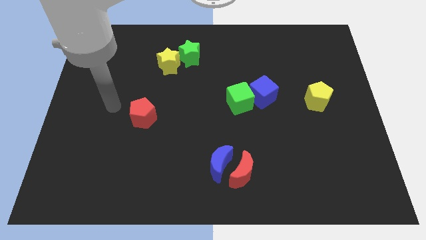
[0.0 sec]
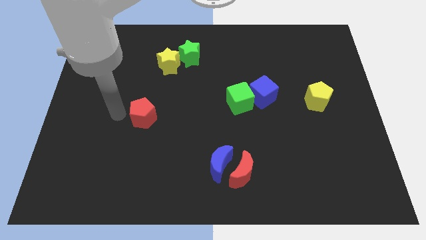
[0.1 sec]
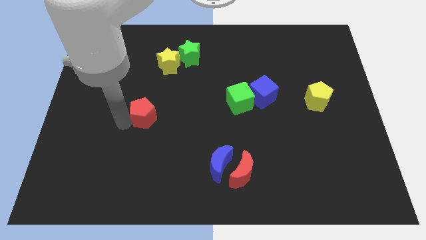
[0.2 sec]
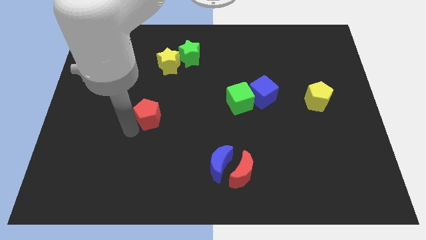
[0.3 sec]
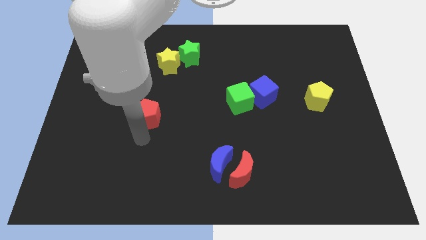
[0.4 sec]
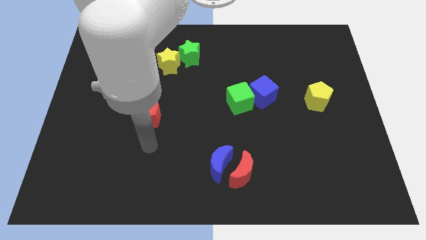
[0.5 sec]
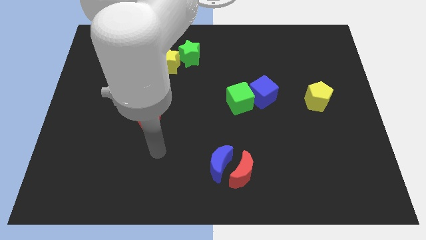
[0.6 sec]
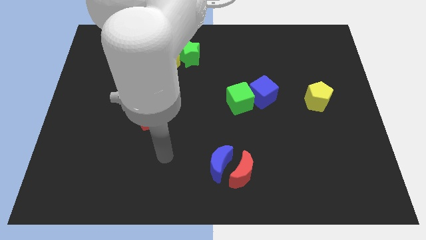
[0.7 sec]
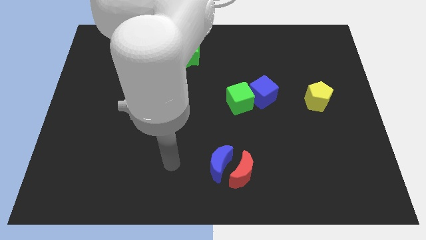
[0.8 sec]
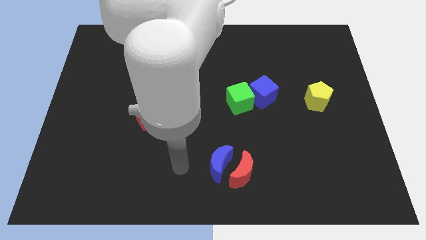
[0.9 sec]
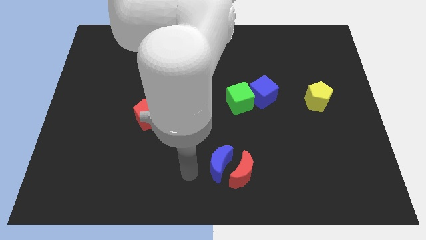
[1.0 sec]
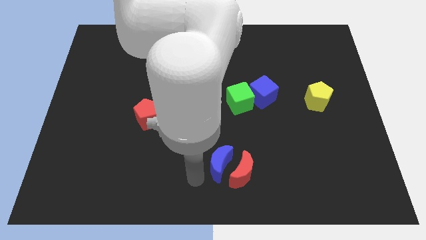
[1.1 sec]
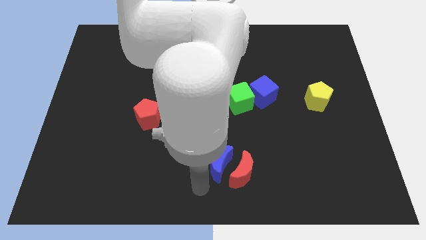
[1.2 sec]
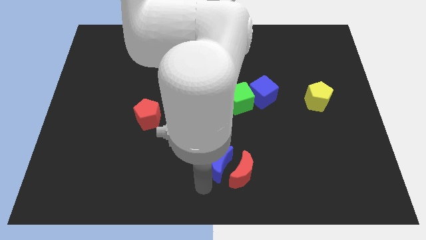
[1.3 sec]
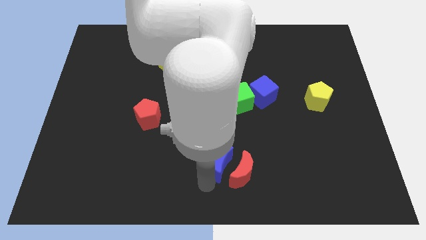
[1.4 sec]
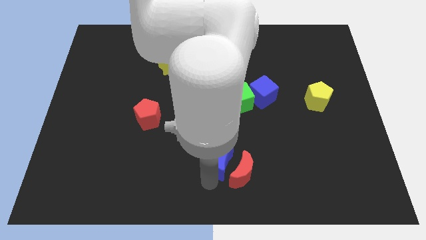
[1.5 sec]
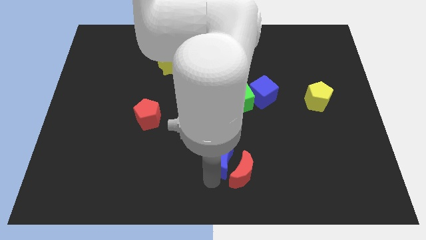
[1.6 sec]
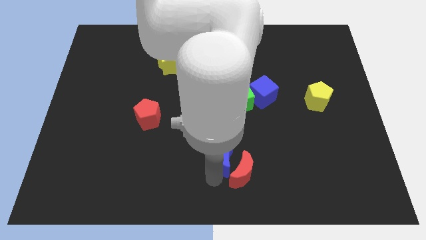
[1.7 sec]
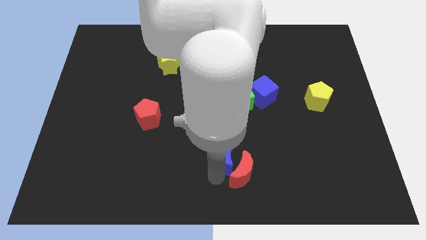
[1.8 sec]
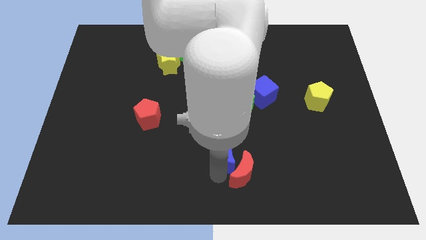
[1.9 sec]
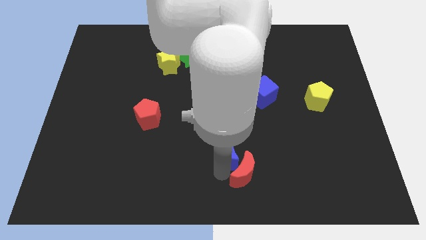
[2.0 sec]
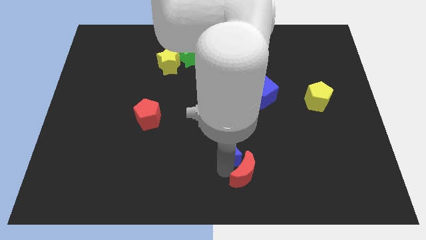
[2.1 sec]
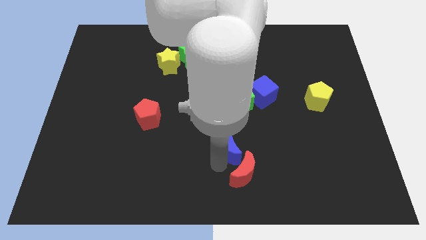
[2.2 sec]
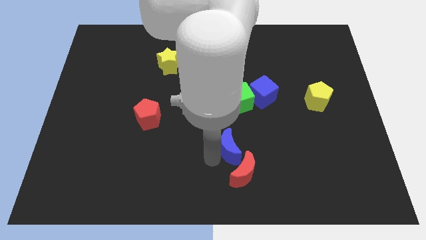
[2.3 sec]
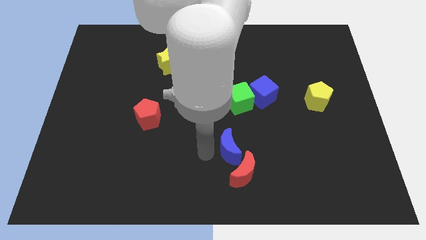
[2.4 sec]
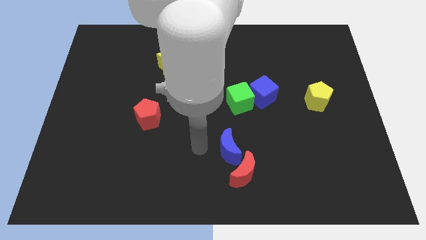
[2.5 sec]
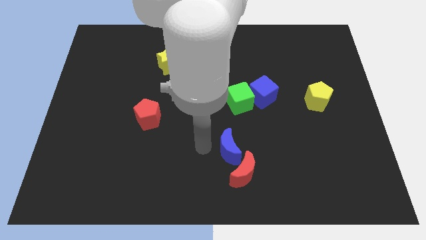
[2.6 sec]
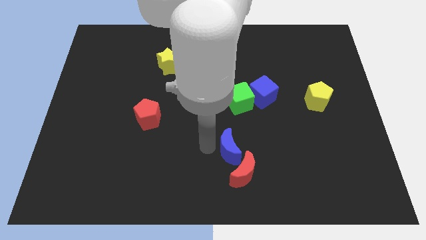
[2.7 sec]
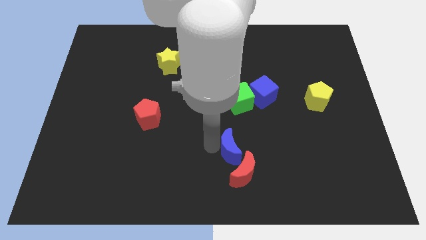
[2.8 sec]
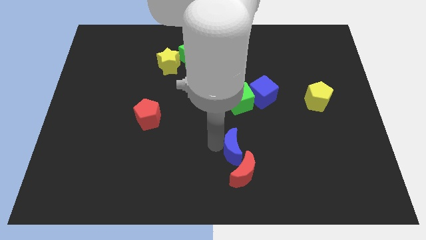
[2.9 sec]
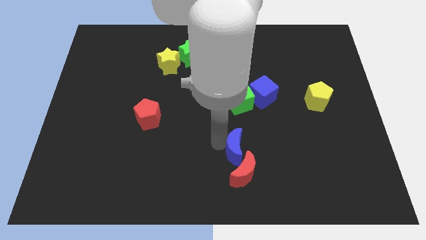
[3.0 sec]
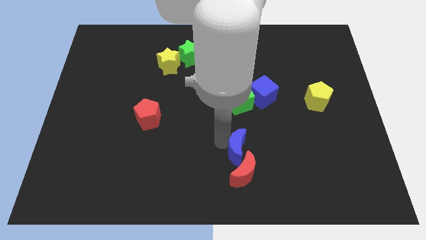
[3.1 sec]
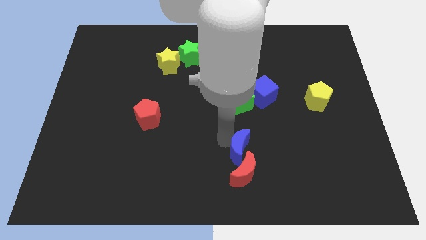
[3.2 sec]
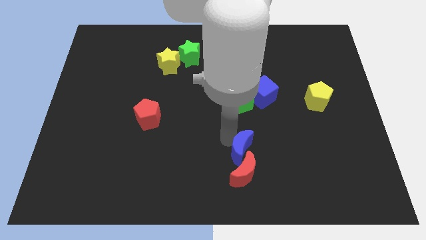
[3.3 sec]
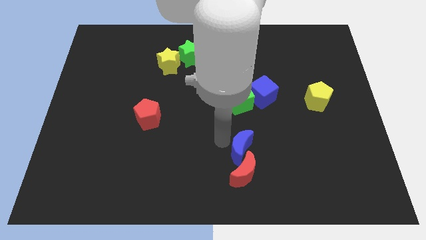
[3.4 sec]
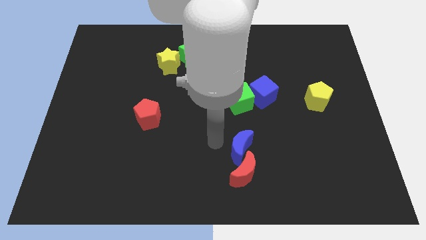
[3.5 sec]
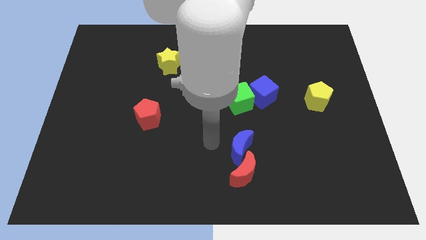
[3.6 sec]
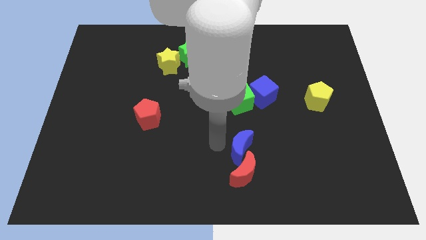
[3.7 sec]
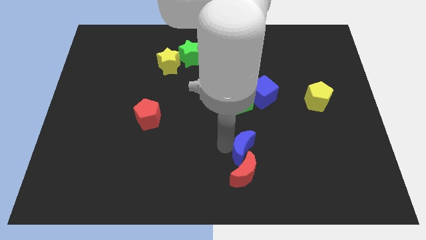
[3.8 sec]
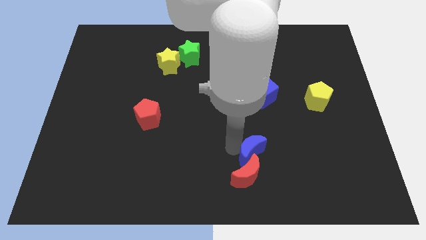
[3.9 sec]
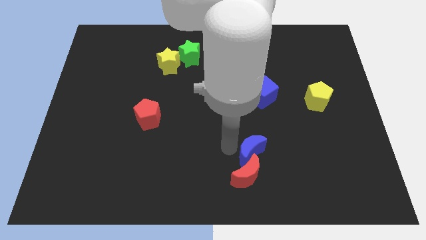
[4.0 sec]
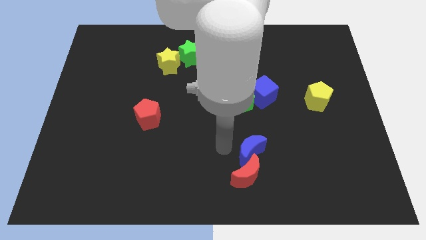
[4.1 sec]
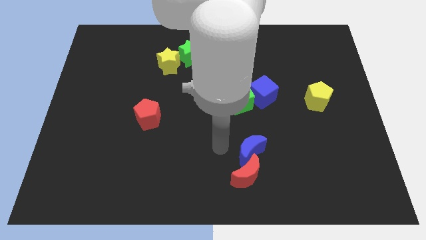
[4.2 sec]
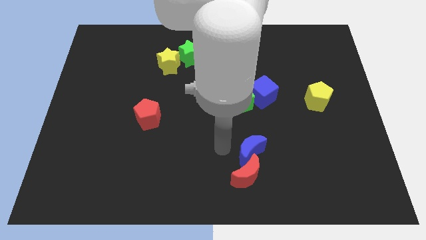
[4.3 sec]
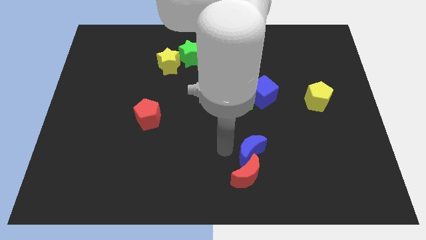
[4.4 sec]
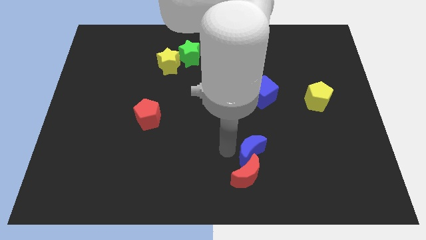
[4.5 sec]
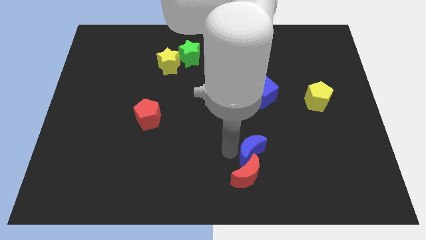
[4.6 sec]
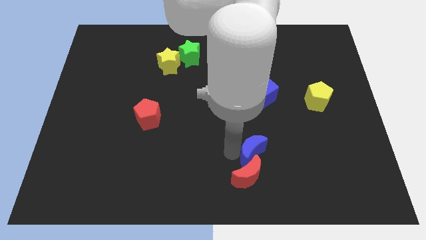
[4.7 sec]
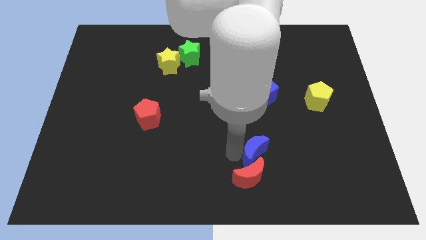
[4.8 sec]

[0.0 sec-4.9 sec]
slide the blue moon somewhat right

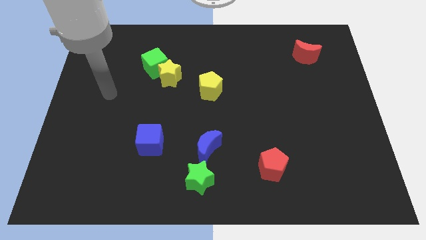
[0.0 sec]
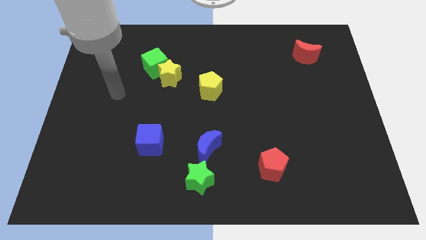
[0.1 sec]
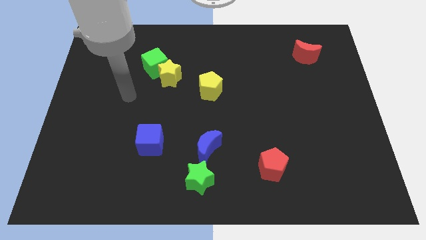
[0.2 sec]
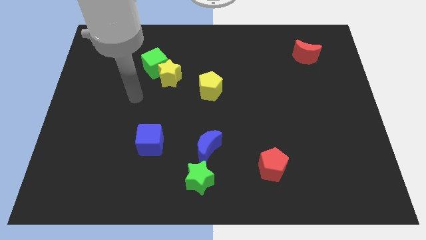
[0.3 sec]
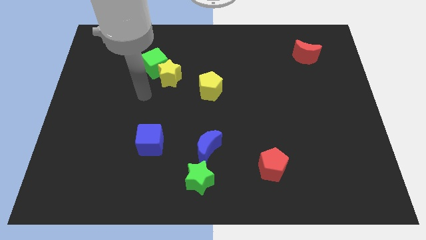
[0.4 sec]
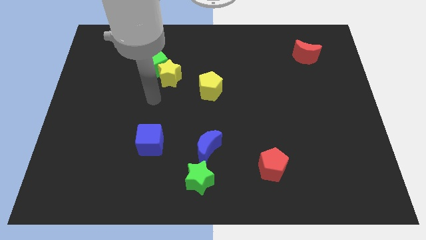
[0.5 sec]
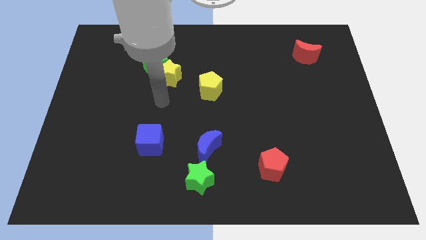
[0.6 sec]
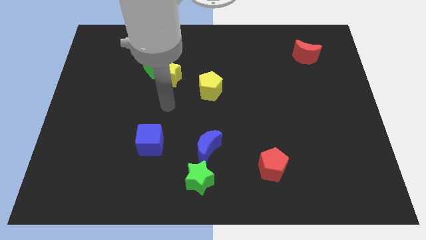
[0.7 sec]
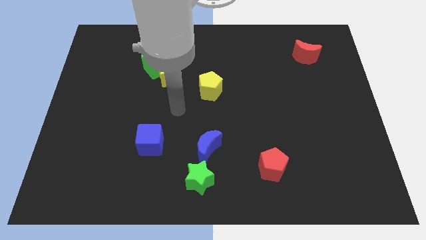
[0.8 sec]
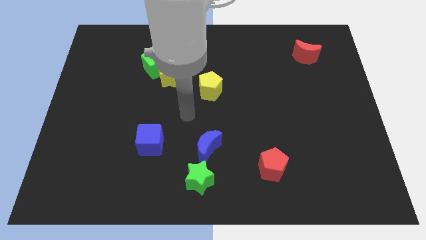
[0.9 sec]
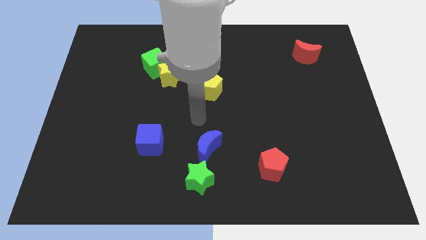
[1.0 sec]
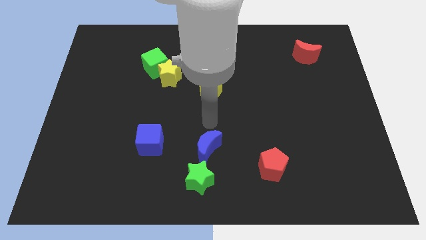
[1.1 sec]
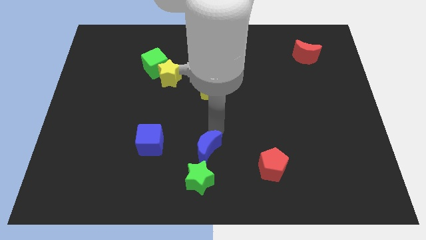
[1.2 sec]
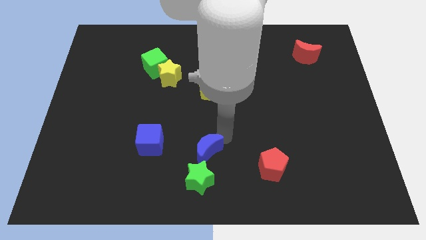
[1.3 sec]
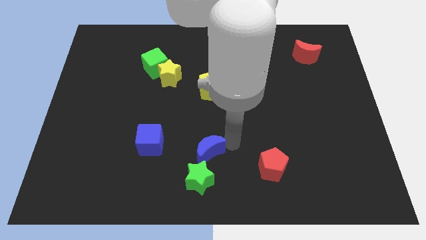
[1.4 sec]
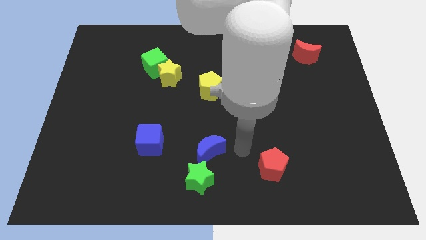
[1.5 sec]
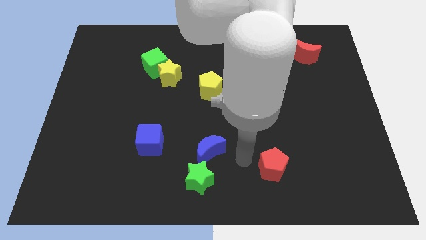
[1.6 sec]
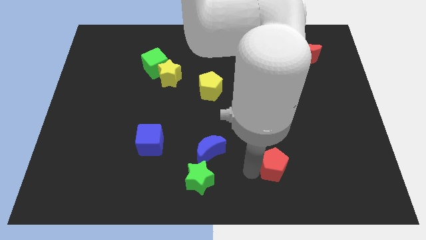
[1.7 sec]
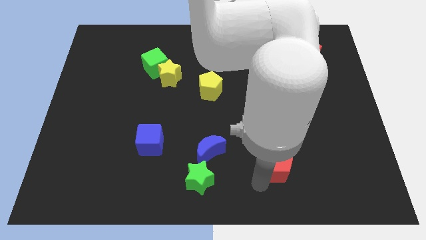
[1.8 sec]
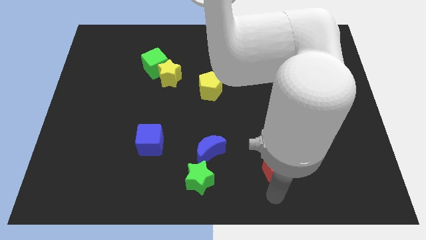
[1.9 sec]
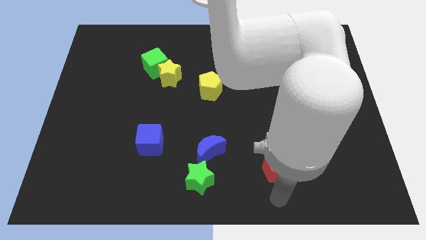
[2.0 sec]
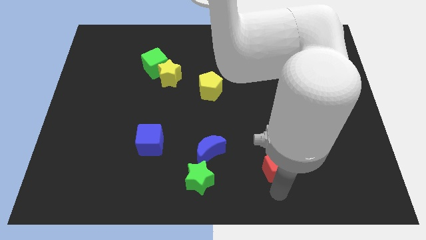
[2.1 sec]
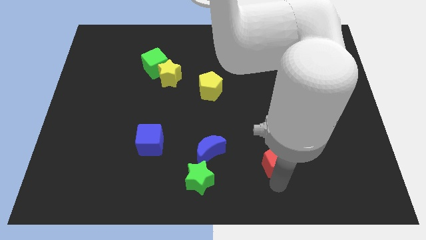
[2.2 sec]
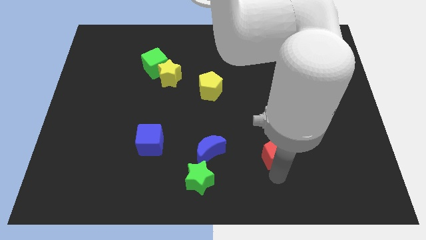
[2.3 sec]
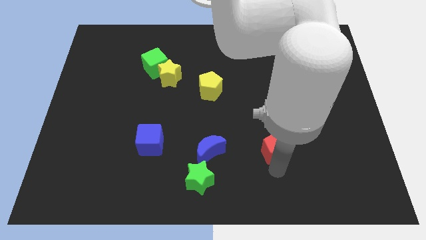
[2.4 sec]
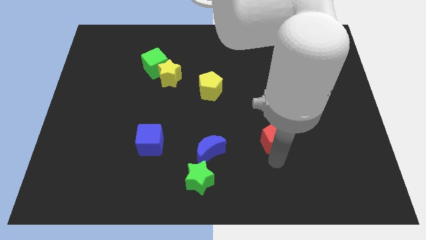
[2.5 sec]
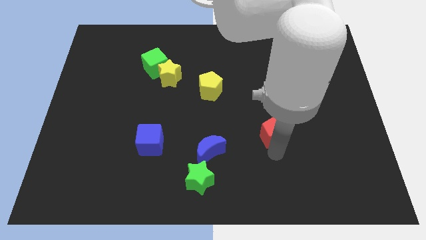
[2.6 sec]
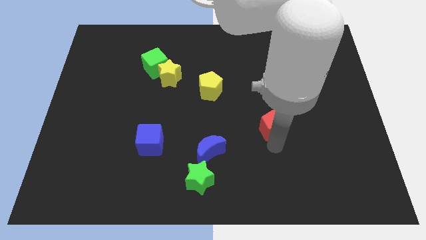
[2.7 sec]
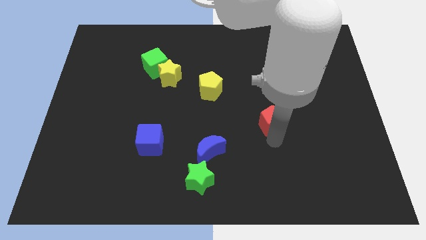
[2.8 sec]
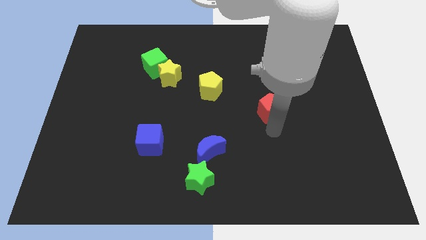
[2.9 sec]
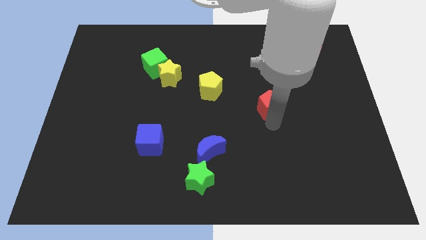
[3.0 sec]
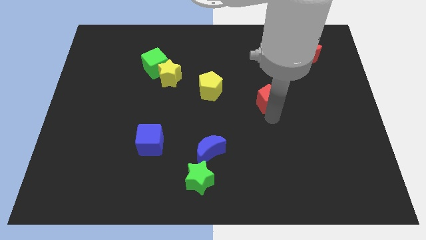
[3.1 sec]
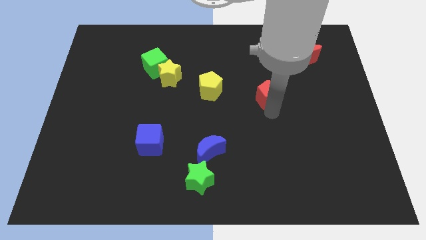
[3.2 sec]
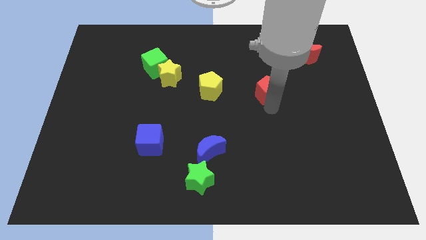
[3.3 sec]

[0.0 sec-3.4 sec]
push the red pentagon upwards
